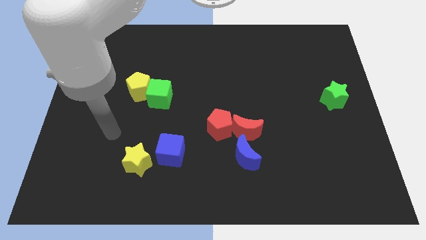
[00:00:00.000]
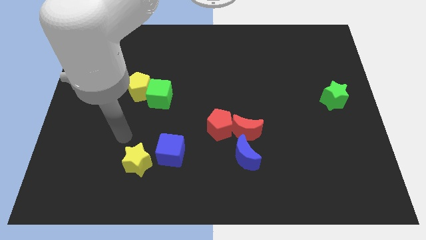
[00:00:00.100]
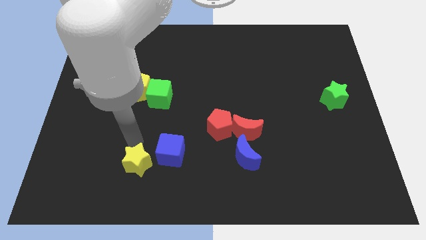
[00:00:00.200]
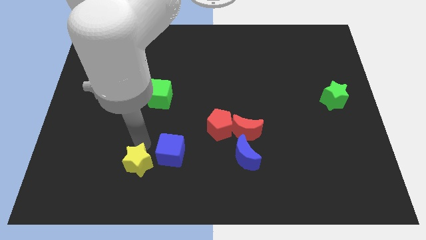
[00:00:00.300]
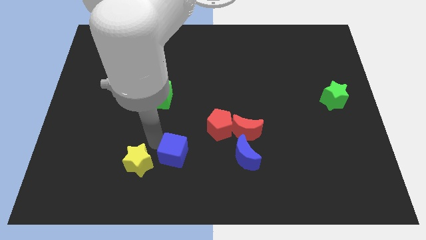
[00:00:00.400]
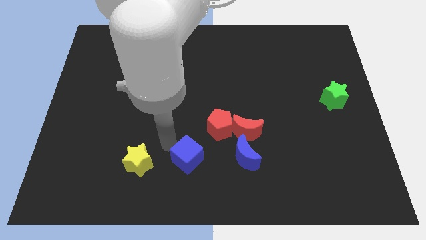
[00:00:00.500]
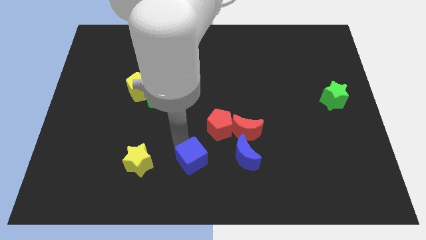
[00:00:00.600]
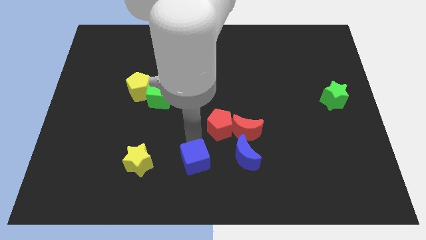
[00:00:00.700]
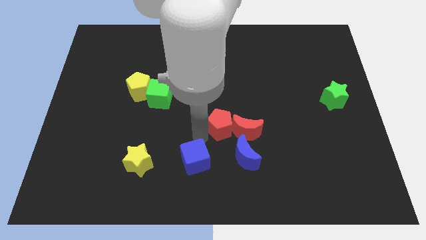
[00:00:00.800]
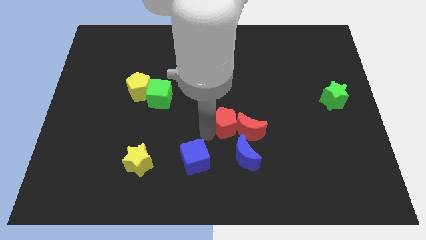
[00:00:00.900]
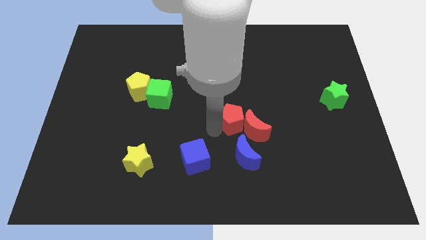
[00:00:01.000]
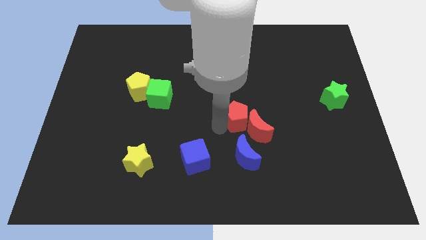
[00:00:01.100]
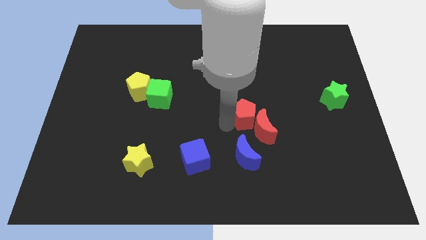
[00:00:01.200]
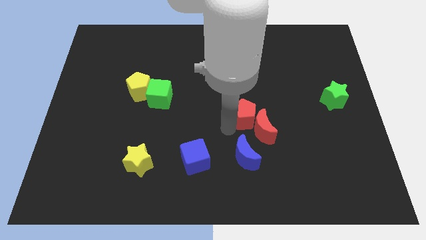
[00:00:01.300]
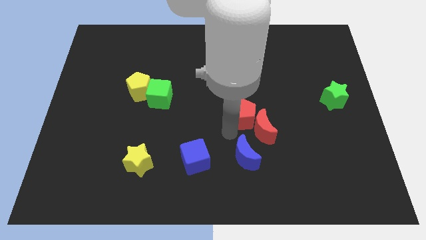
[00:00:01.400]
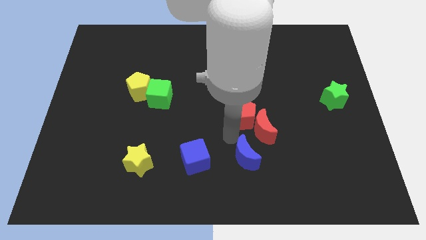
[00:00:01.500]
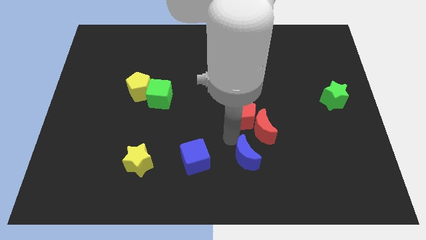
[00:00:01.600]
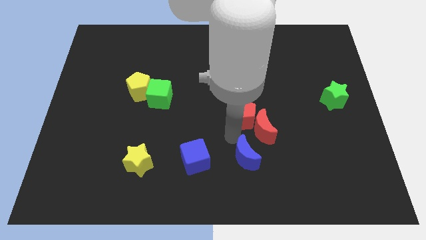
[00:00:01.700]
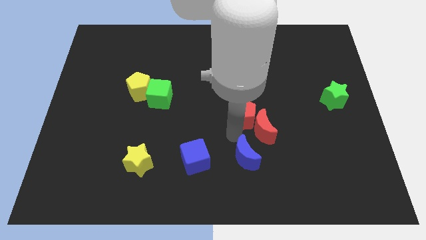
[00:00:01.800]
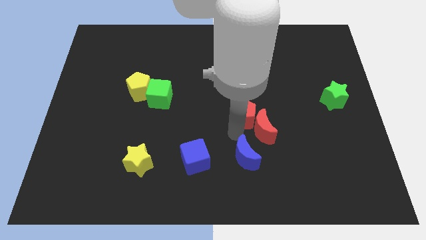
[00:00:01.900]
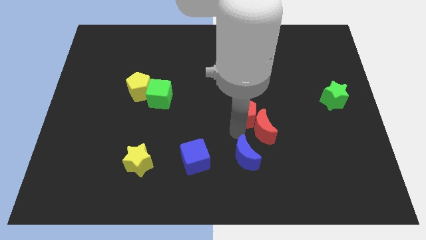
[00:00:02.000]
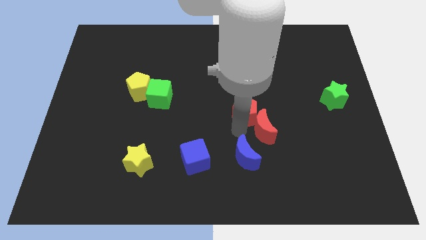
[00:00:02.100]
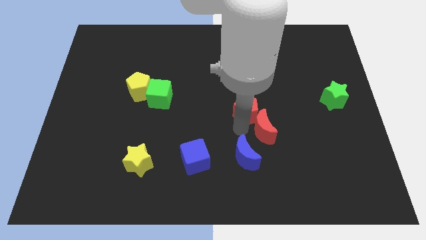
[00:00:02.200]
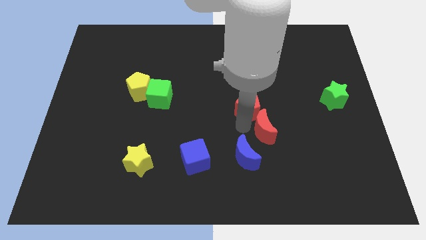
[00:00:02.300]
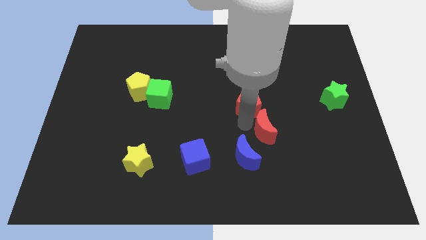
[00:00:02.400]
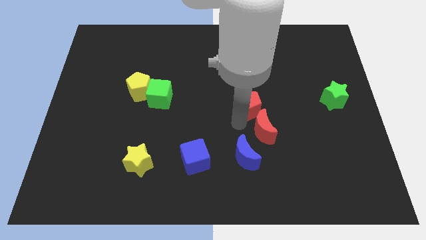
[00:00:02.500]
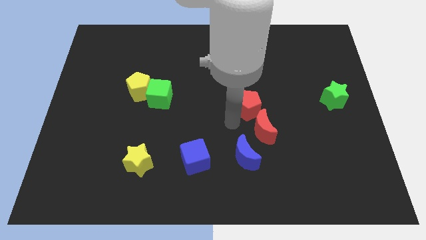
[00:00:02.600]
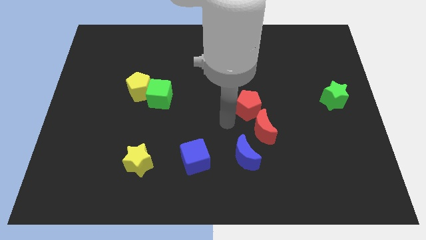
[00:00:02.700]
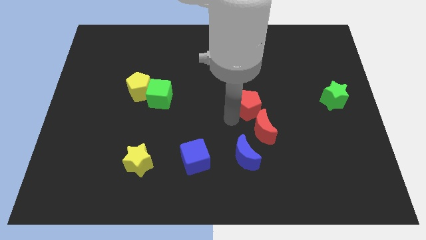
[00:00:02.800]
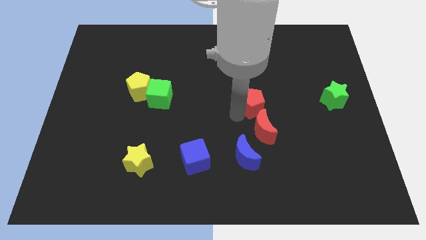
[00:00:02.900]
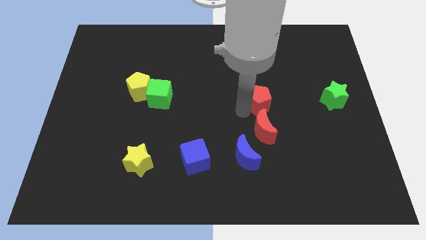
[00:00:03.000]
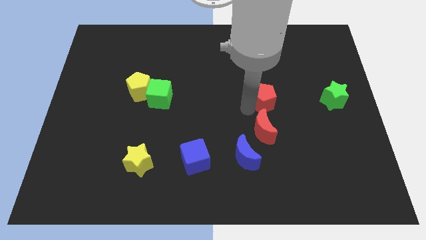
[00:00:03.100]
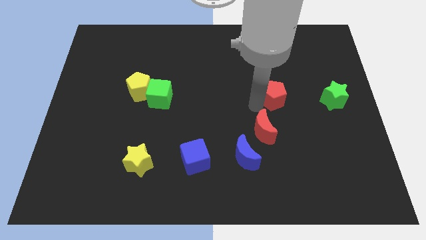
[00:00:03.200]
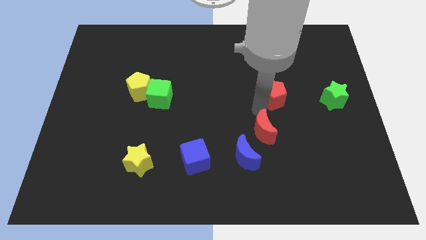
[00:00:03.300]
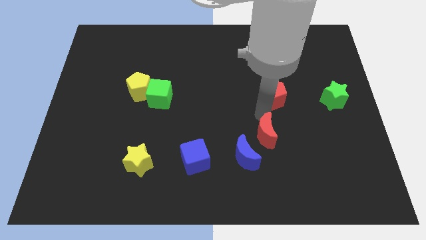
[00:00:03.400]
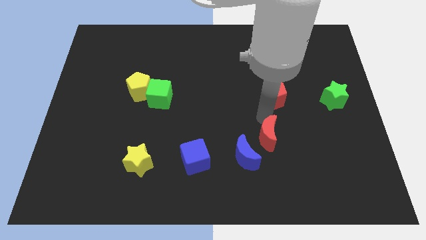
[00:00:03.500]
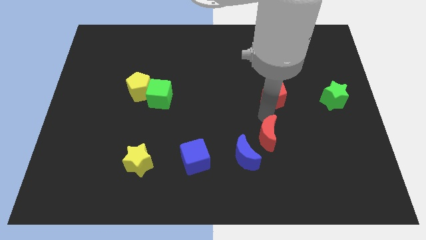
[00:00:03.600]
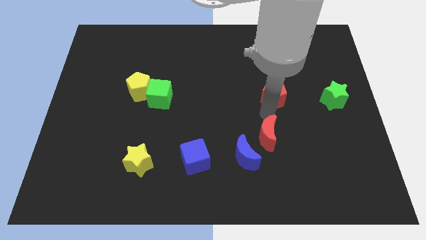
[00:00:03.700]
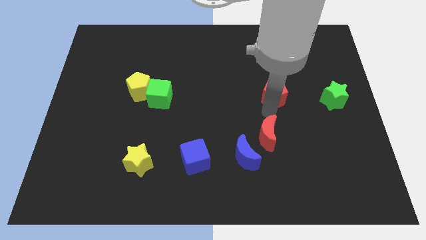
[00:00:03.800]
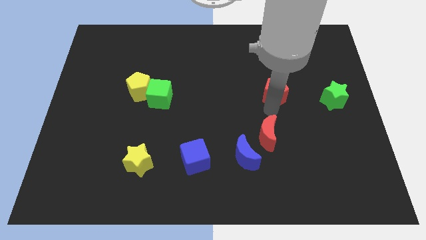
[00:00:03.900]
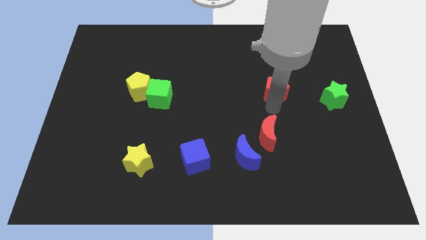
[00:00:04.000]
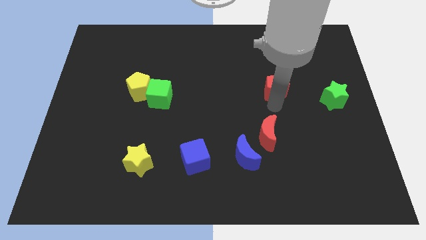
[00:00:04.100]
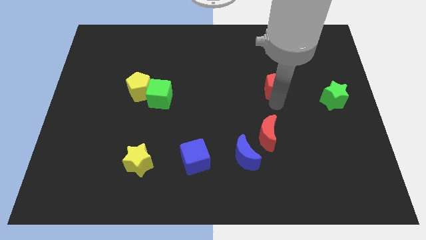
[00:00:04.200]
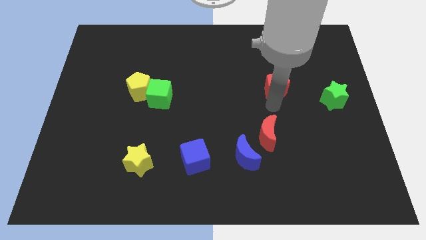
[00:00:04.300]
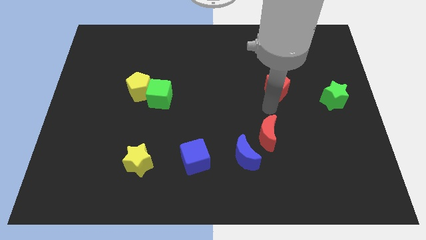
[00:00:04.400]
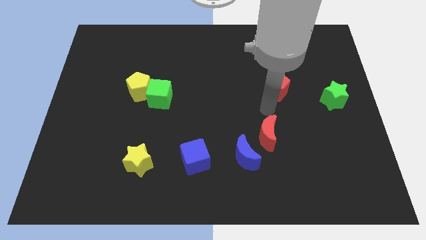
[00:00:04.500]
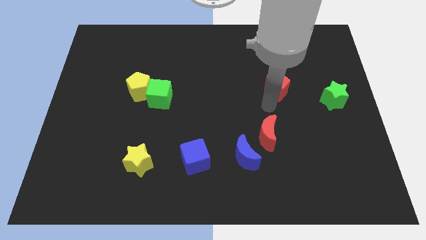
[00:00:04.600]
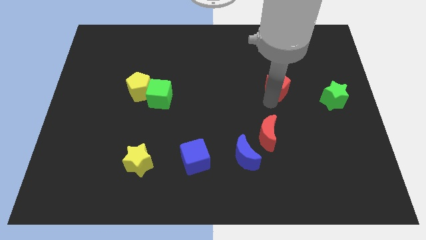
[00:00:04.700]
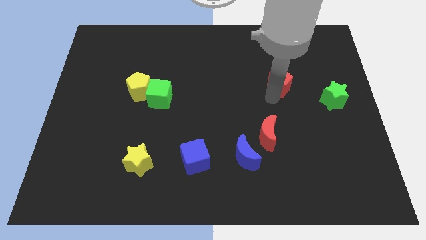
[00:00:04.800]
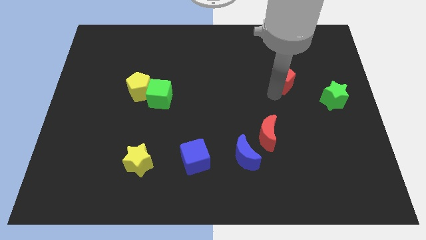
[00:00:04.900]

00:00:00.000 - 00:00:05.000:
move the red pentagon upwards and to the right diagonally

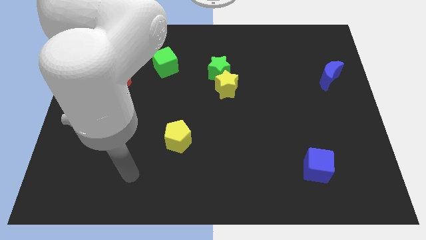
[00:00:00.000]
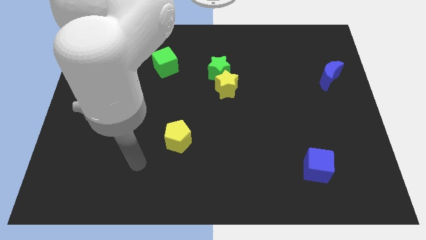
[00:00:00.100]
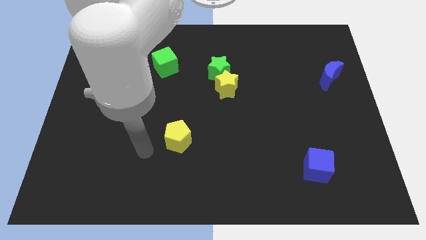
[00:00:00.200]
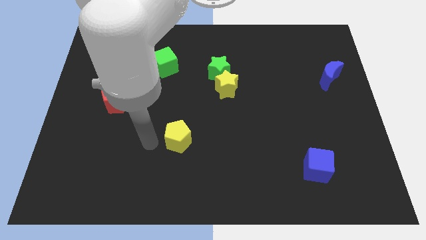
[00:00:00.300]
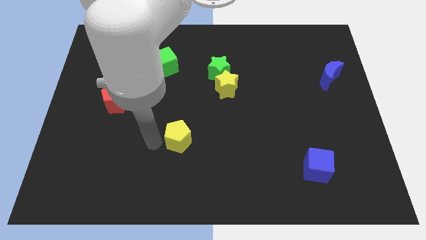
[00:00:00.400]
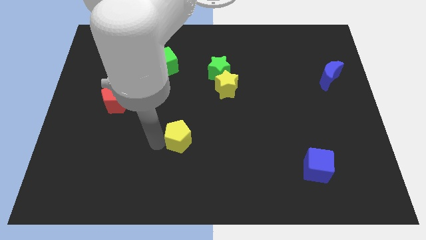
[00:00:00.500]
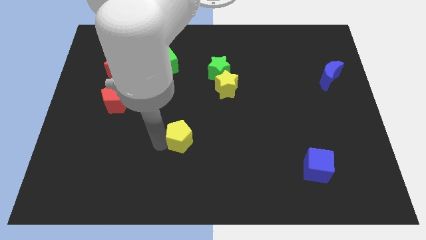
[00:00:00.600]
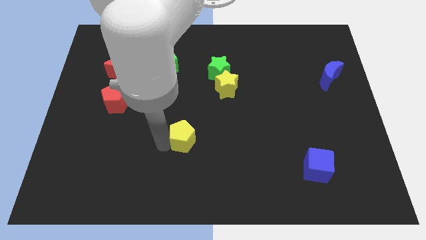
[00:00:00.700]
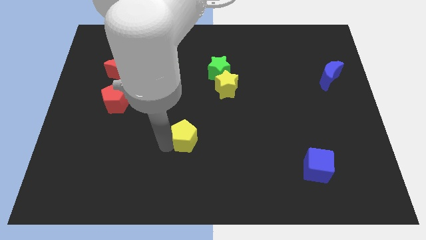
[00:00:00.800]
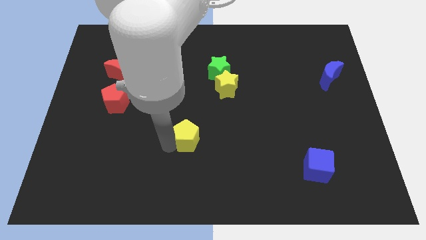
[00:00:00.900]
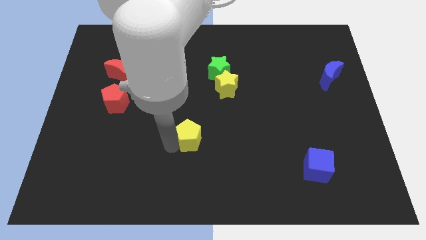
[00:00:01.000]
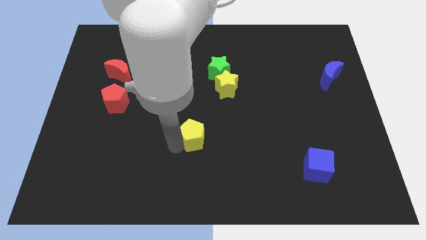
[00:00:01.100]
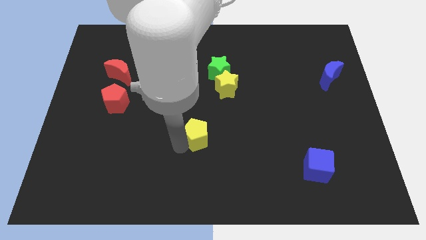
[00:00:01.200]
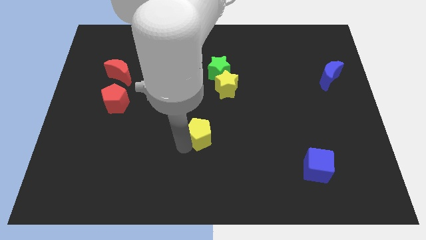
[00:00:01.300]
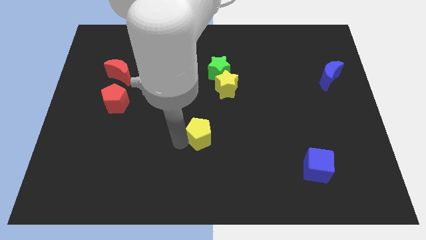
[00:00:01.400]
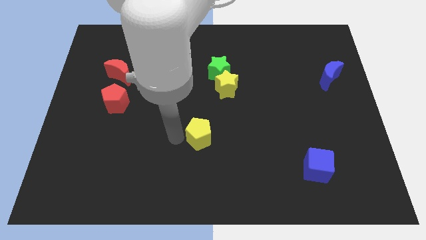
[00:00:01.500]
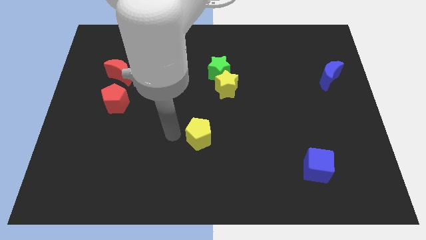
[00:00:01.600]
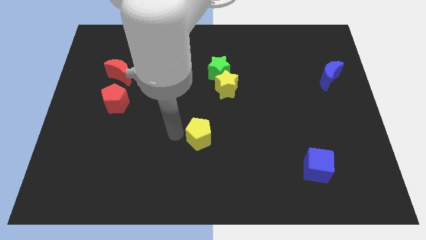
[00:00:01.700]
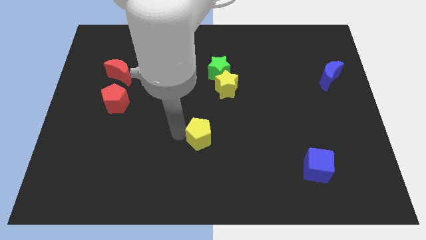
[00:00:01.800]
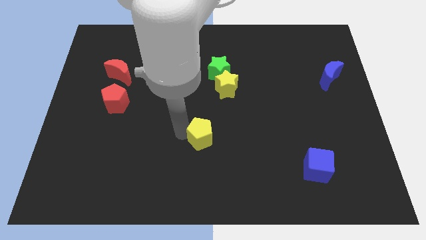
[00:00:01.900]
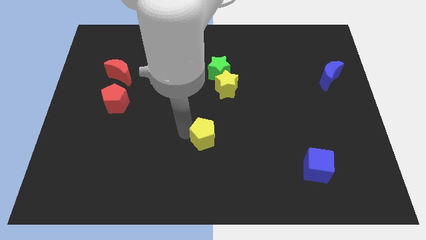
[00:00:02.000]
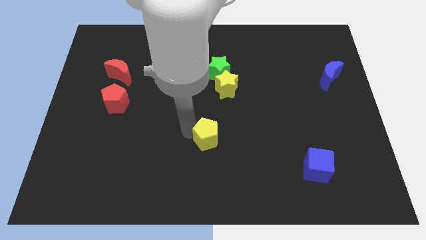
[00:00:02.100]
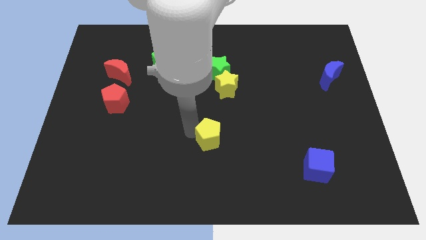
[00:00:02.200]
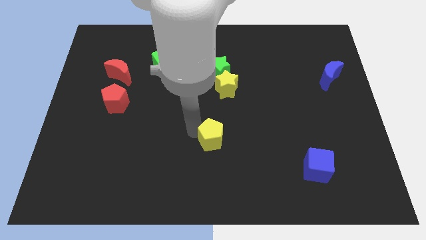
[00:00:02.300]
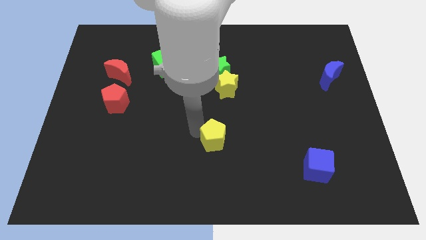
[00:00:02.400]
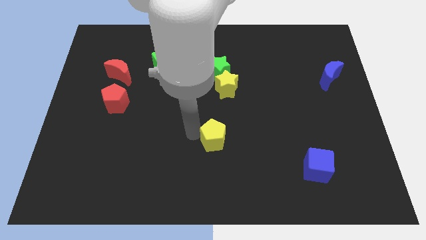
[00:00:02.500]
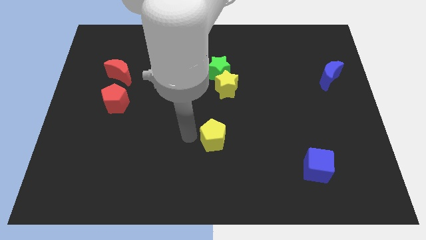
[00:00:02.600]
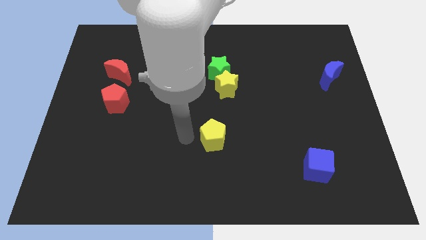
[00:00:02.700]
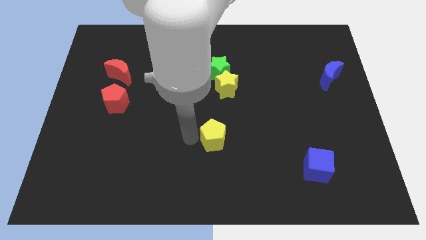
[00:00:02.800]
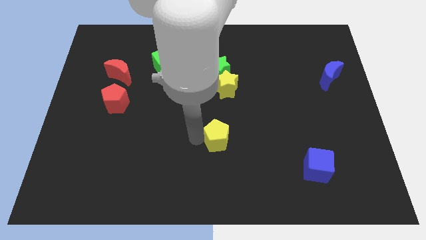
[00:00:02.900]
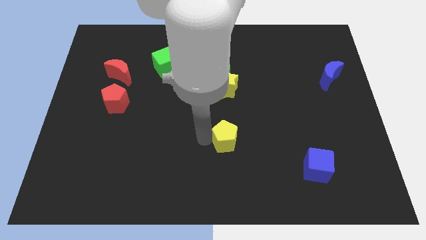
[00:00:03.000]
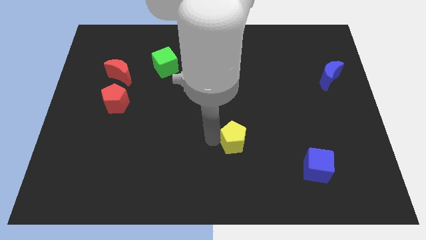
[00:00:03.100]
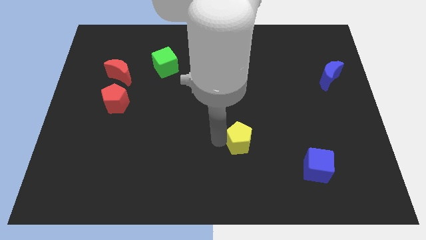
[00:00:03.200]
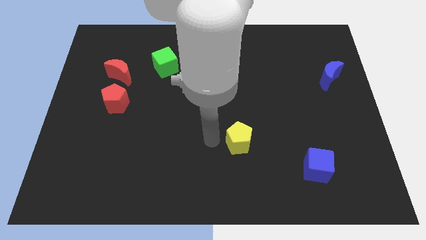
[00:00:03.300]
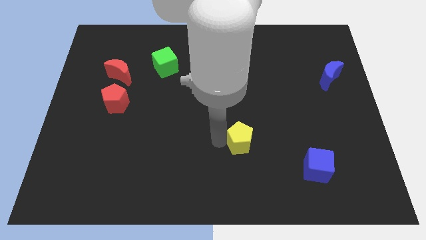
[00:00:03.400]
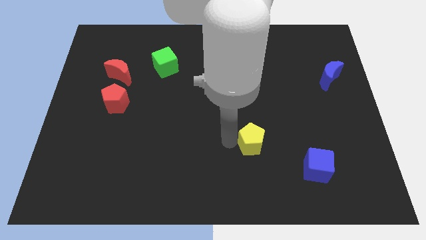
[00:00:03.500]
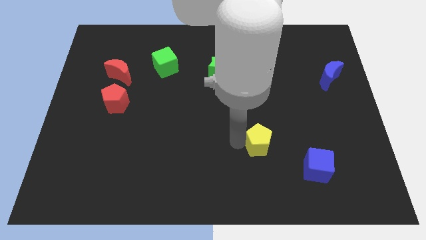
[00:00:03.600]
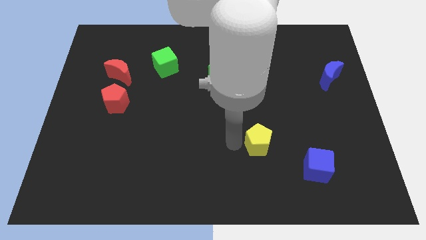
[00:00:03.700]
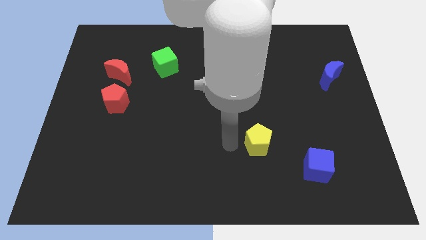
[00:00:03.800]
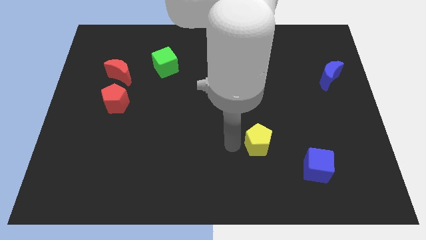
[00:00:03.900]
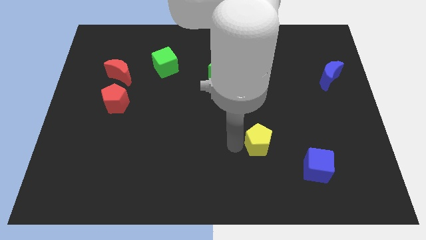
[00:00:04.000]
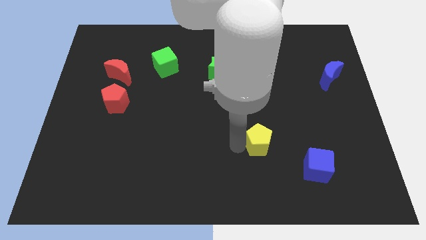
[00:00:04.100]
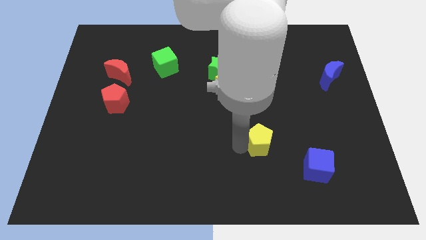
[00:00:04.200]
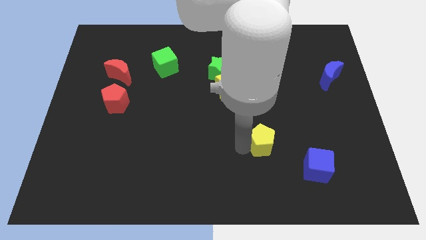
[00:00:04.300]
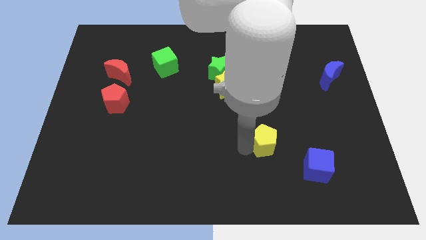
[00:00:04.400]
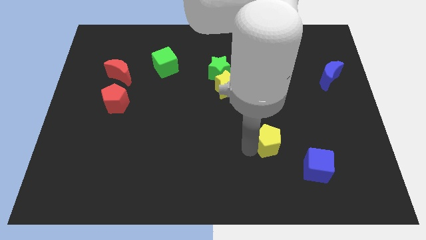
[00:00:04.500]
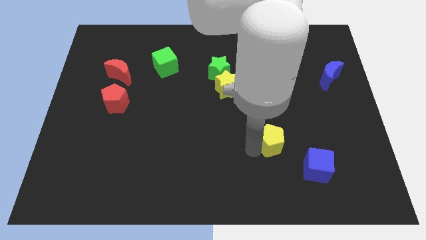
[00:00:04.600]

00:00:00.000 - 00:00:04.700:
push the yellow pentagon right
